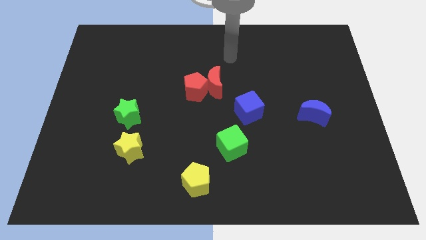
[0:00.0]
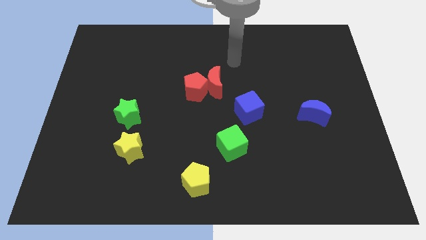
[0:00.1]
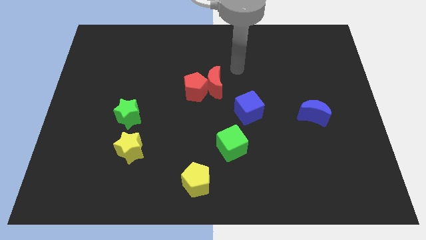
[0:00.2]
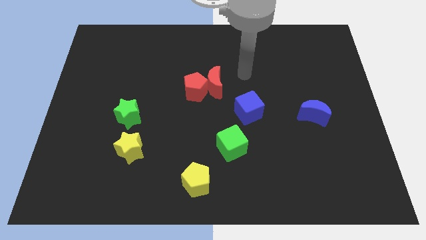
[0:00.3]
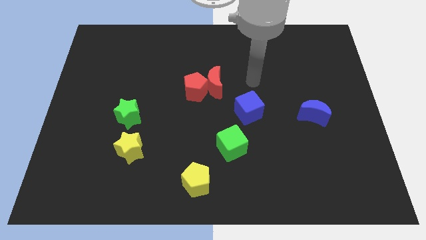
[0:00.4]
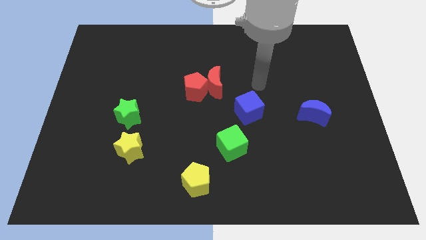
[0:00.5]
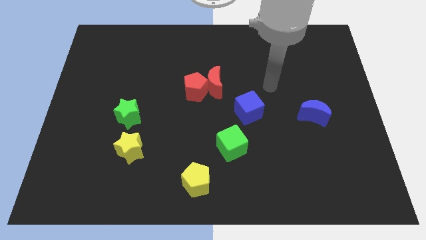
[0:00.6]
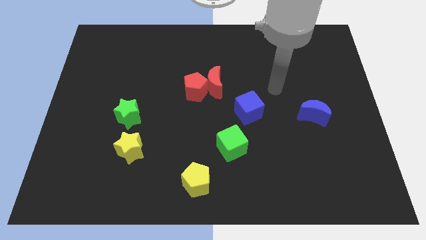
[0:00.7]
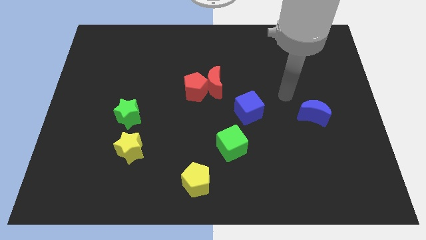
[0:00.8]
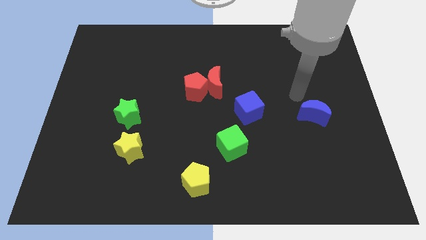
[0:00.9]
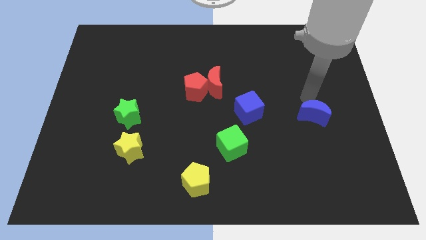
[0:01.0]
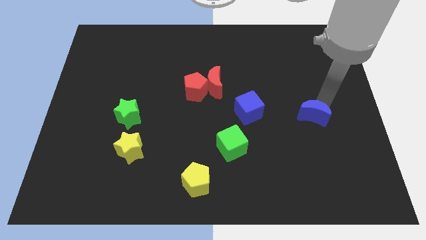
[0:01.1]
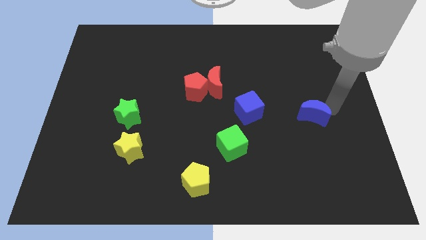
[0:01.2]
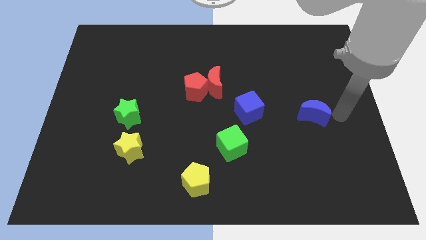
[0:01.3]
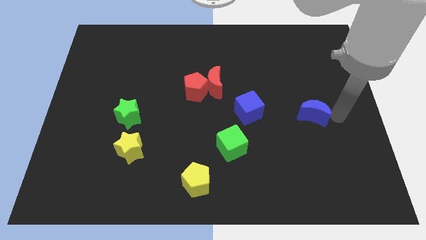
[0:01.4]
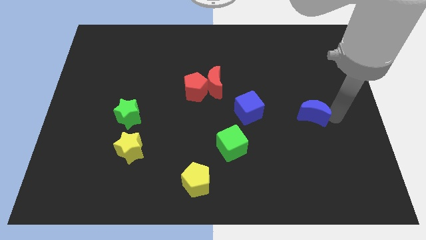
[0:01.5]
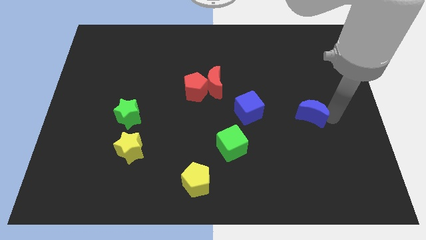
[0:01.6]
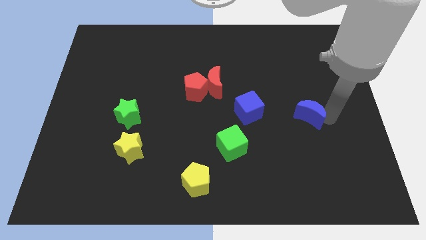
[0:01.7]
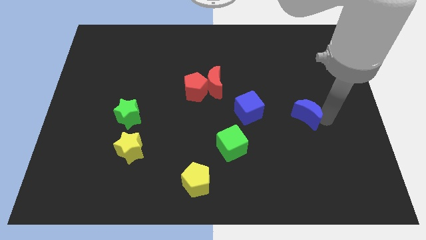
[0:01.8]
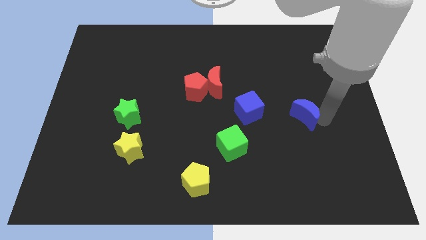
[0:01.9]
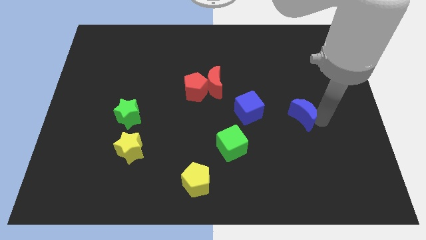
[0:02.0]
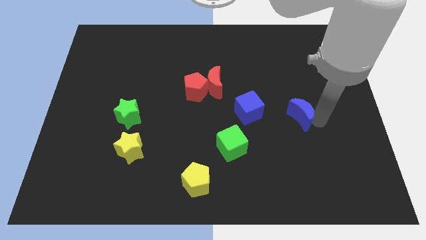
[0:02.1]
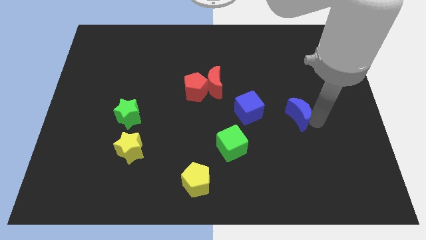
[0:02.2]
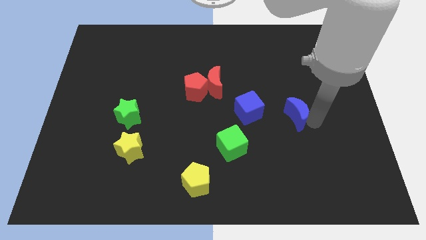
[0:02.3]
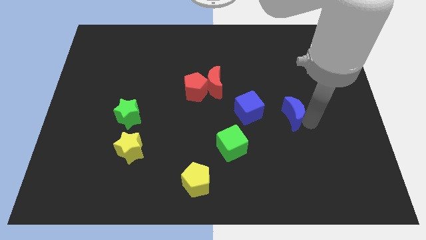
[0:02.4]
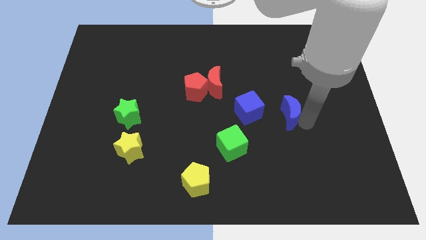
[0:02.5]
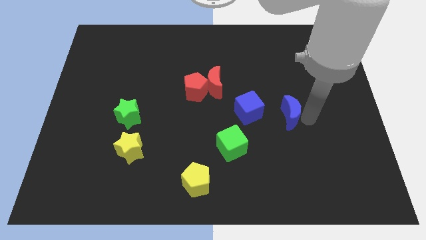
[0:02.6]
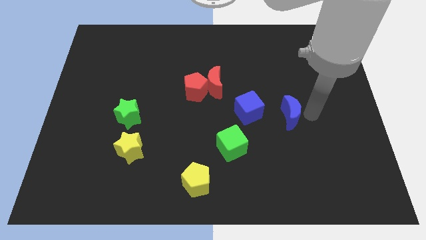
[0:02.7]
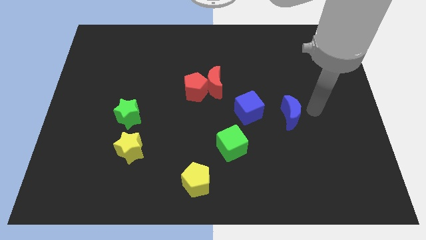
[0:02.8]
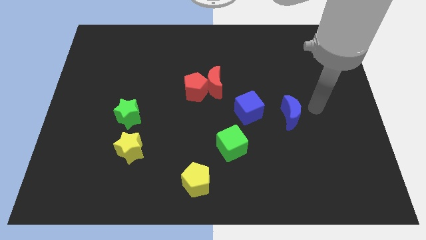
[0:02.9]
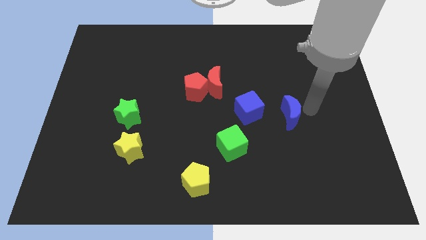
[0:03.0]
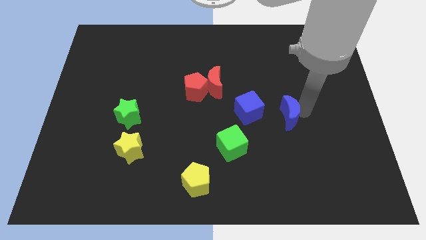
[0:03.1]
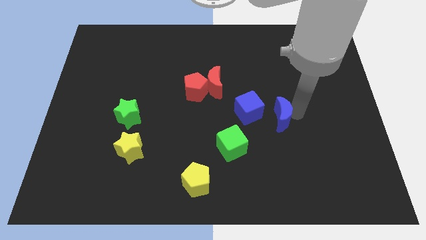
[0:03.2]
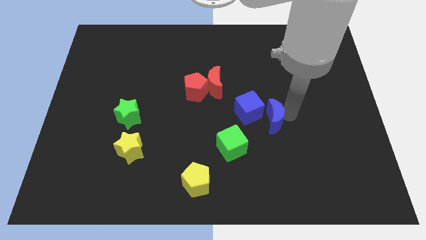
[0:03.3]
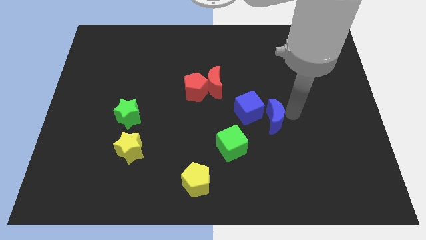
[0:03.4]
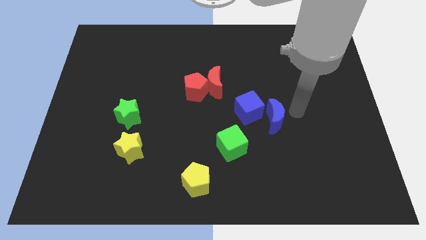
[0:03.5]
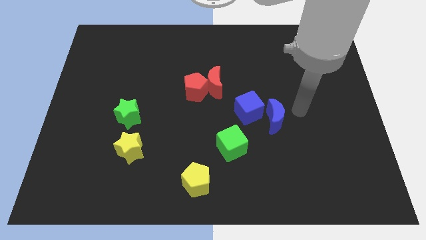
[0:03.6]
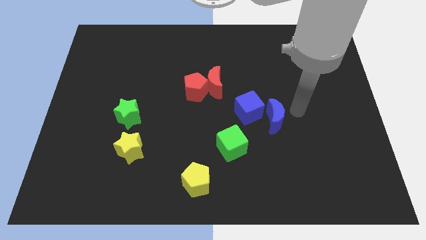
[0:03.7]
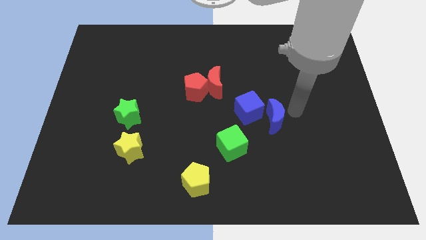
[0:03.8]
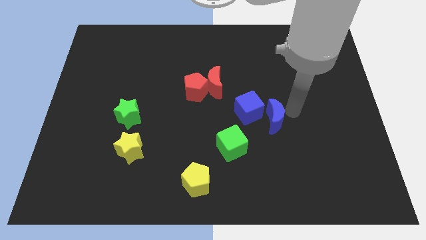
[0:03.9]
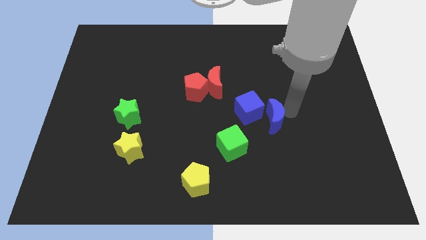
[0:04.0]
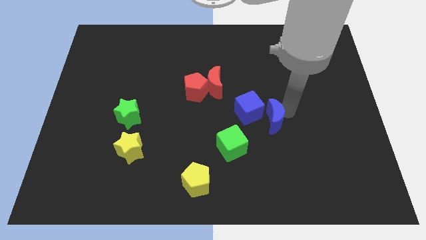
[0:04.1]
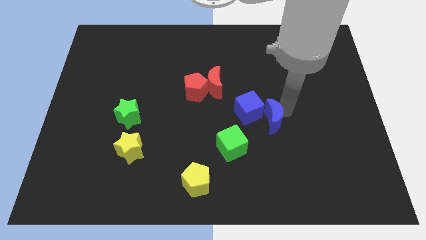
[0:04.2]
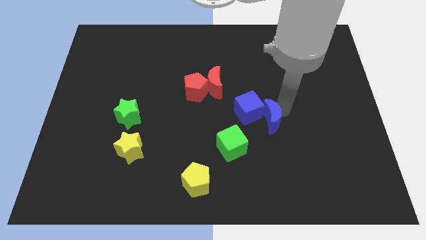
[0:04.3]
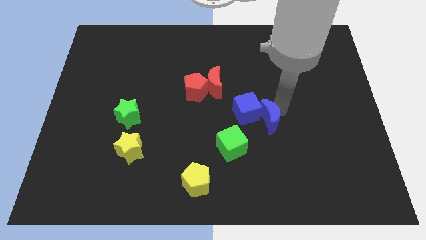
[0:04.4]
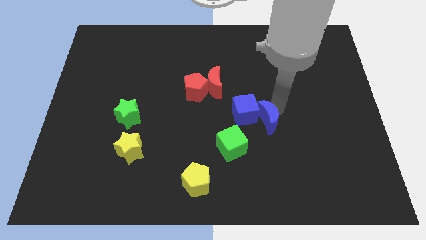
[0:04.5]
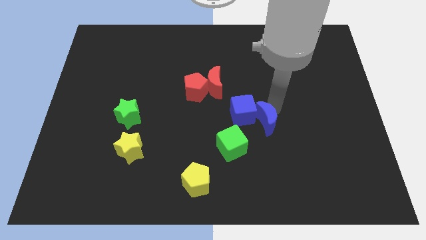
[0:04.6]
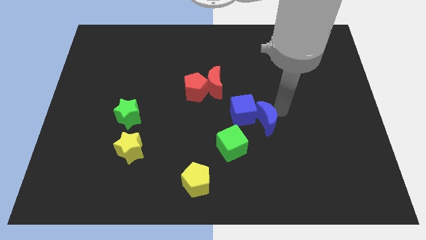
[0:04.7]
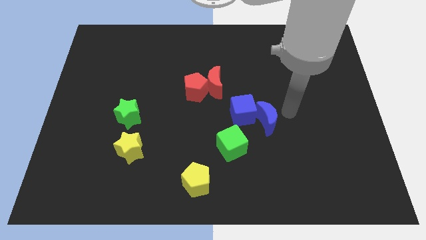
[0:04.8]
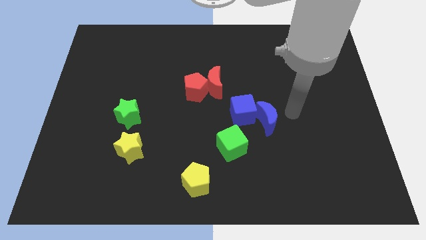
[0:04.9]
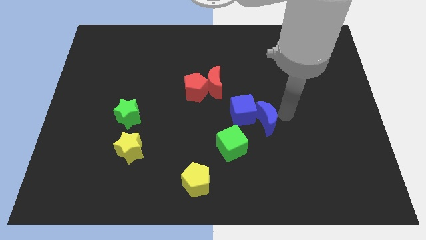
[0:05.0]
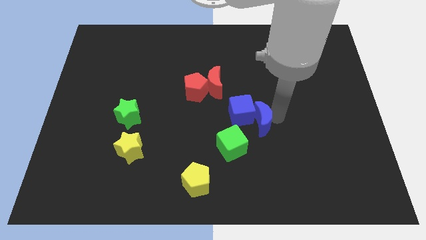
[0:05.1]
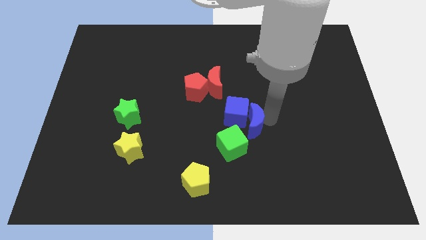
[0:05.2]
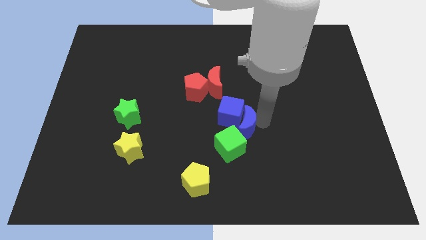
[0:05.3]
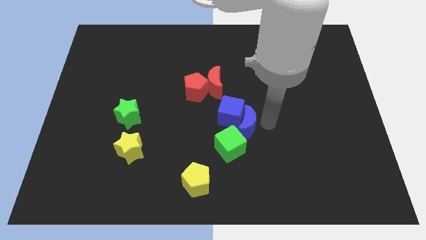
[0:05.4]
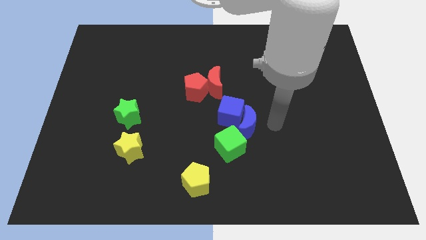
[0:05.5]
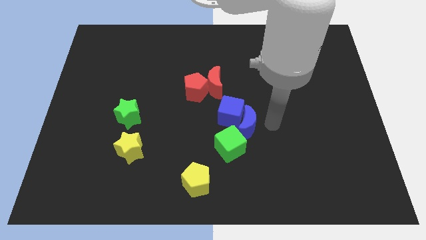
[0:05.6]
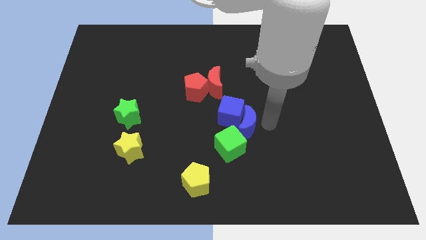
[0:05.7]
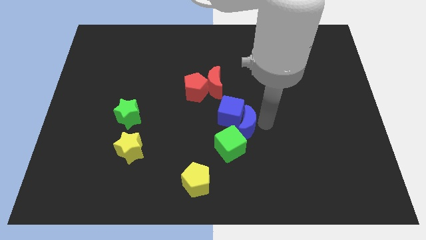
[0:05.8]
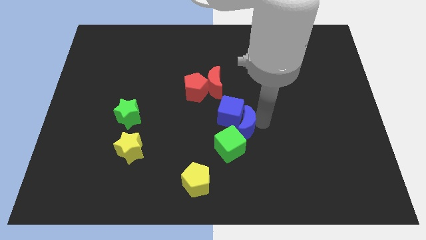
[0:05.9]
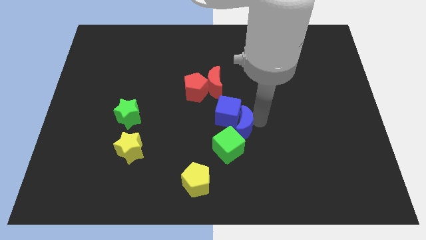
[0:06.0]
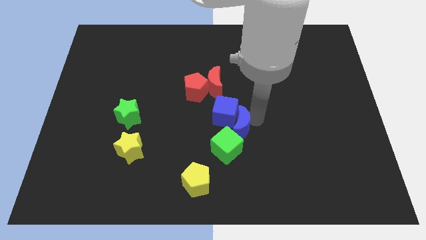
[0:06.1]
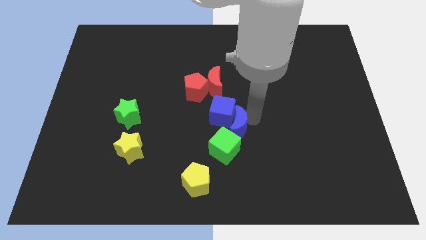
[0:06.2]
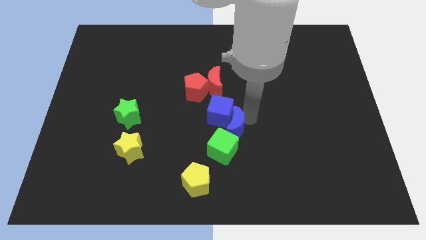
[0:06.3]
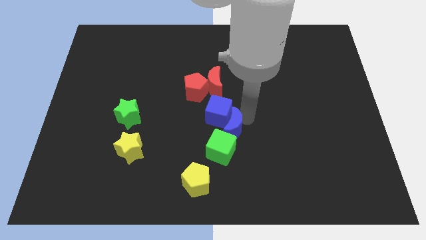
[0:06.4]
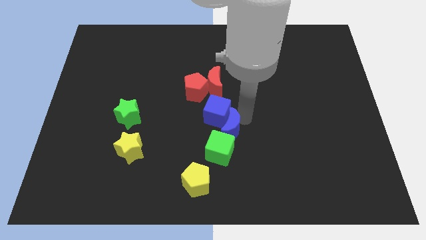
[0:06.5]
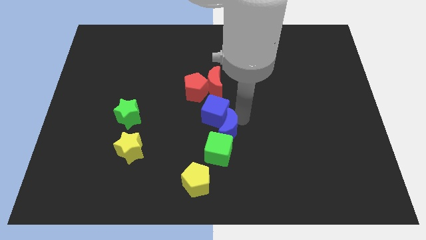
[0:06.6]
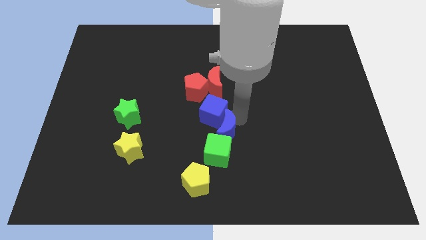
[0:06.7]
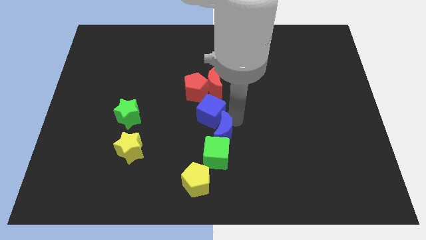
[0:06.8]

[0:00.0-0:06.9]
push the blue moon to the left

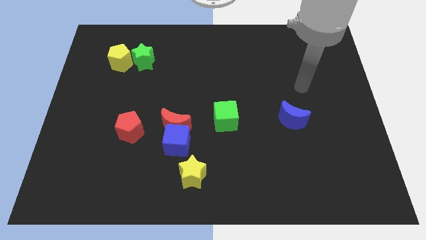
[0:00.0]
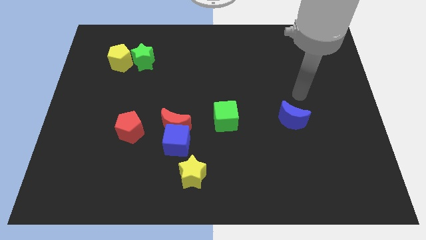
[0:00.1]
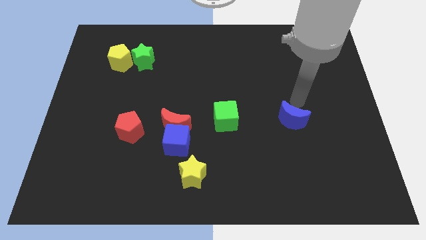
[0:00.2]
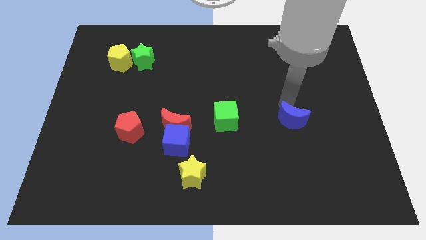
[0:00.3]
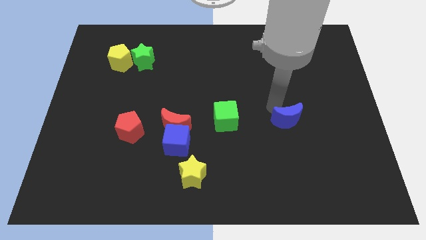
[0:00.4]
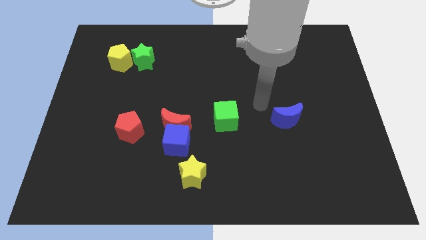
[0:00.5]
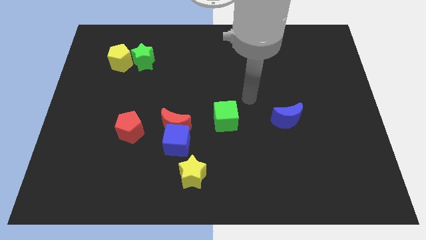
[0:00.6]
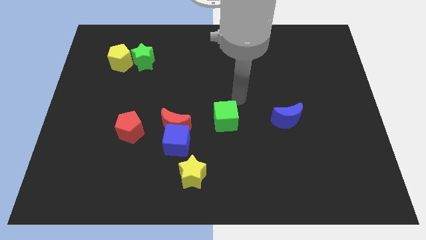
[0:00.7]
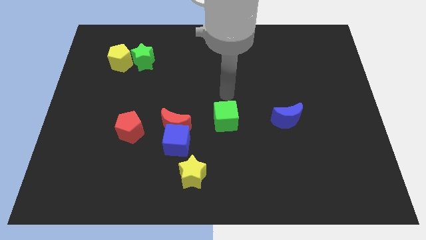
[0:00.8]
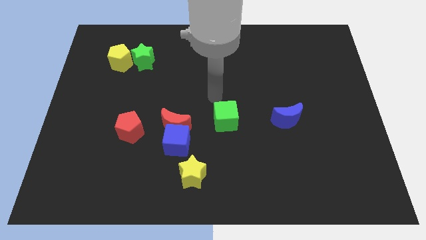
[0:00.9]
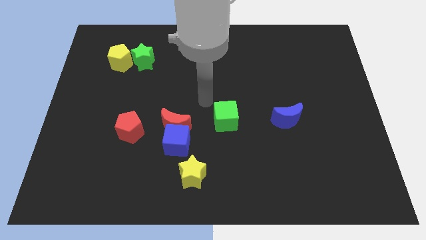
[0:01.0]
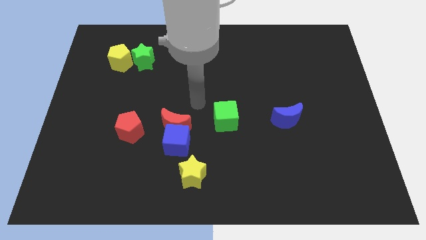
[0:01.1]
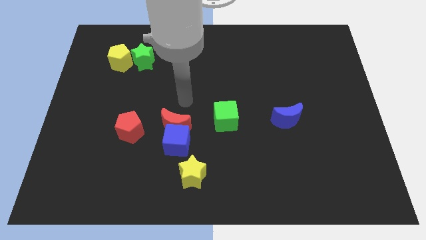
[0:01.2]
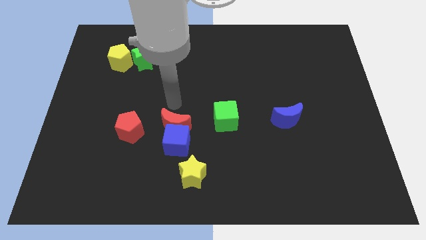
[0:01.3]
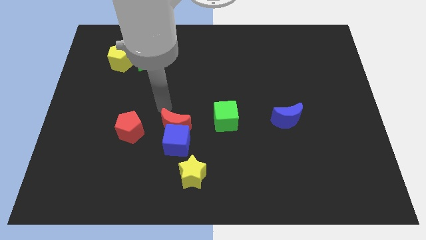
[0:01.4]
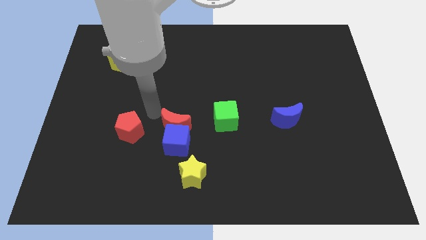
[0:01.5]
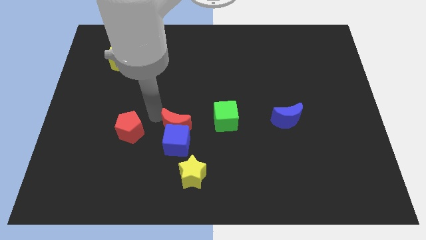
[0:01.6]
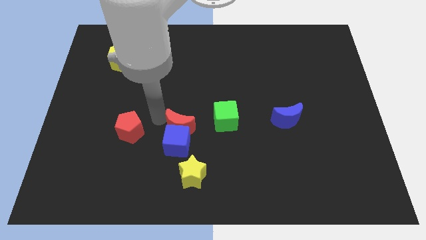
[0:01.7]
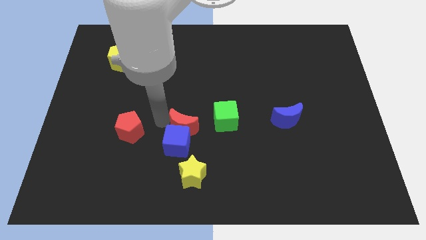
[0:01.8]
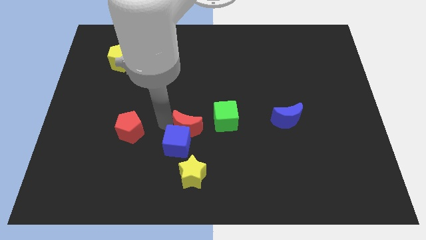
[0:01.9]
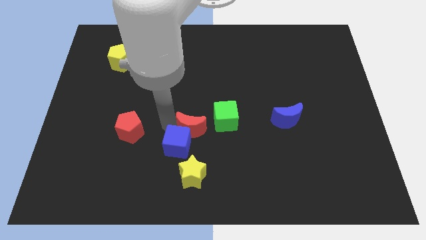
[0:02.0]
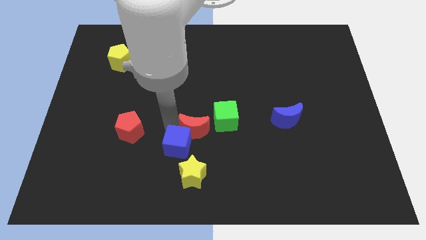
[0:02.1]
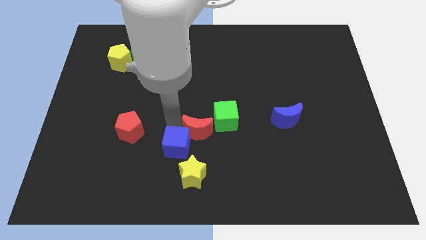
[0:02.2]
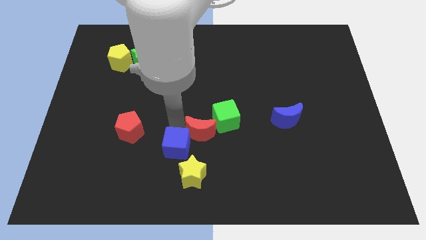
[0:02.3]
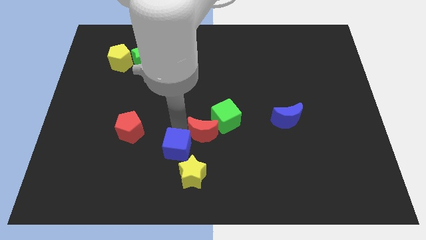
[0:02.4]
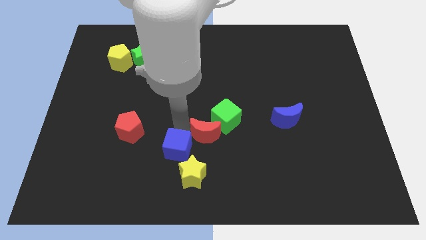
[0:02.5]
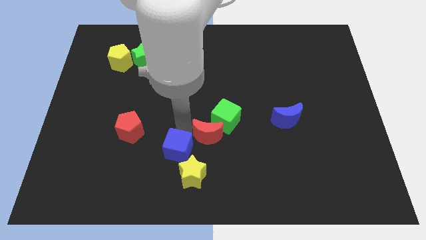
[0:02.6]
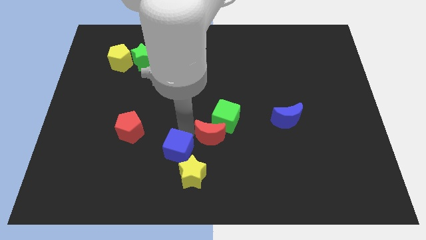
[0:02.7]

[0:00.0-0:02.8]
move the red moon a little bit down and right diagonally
